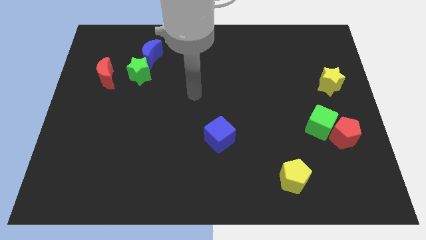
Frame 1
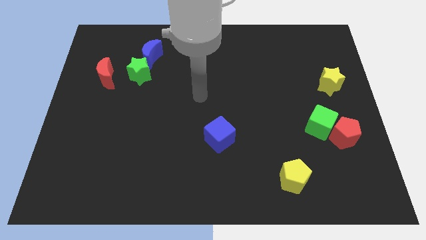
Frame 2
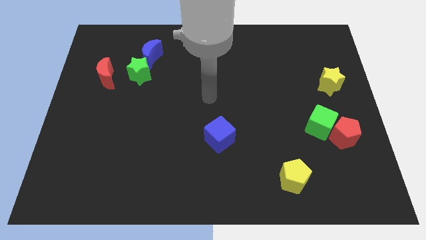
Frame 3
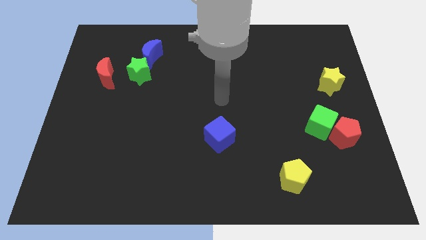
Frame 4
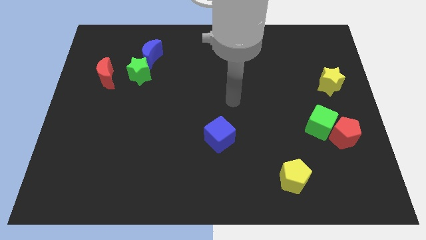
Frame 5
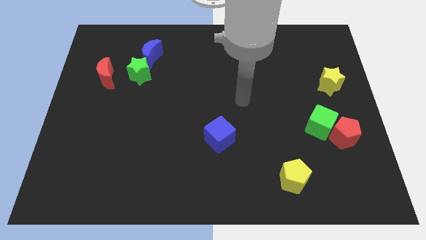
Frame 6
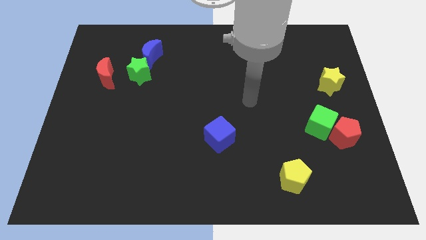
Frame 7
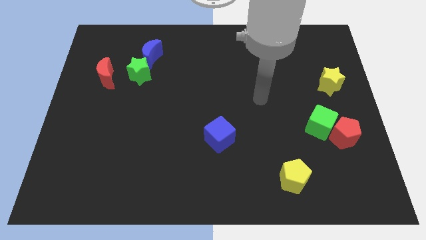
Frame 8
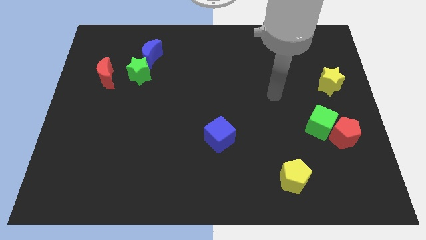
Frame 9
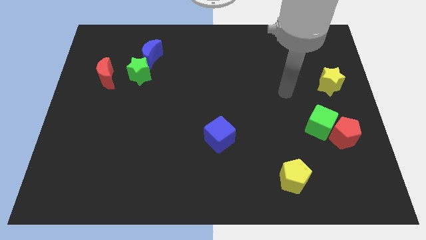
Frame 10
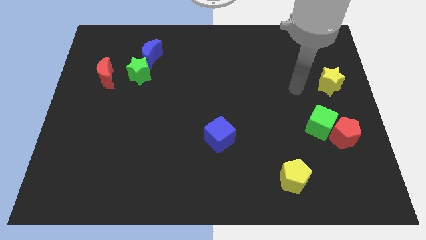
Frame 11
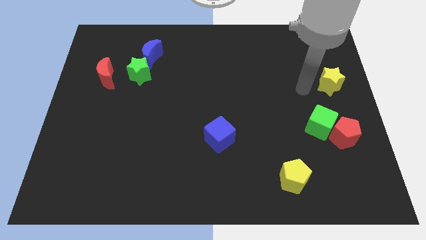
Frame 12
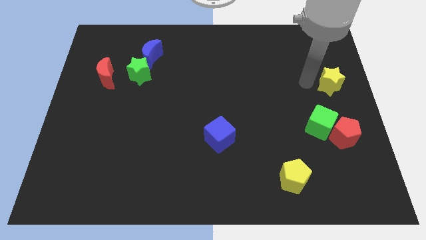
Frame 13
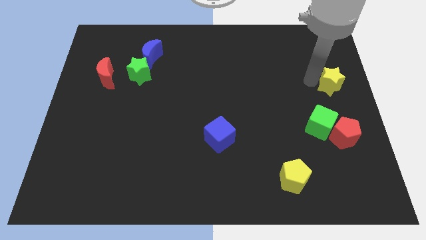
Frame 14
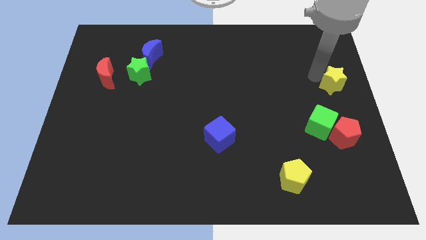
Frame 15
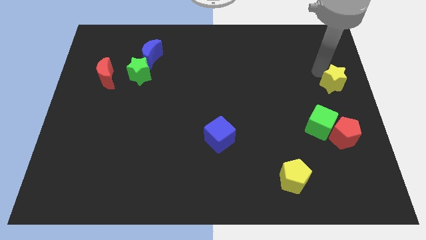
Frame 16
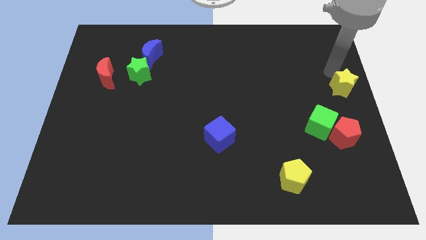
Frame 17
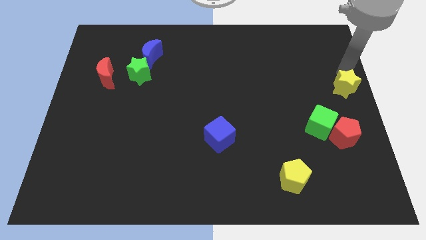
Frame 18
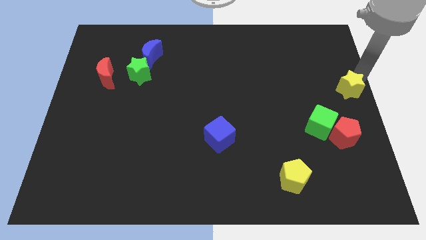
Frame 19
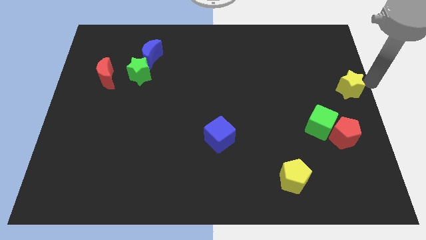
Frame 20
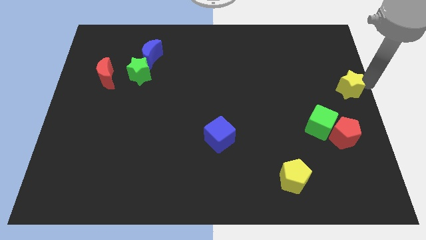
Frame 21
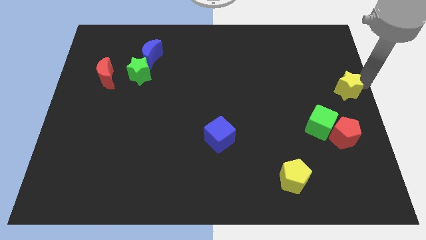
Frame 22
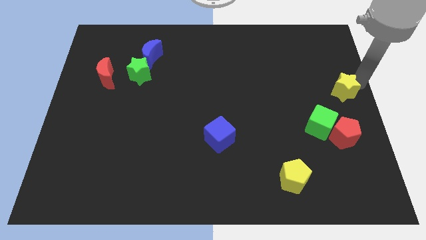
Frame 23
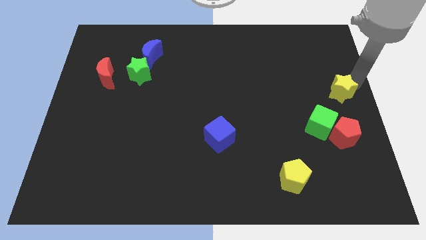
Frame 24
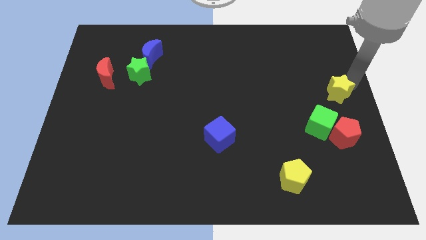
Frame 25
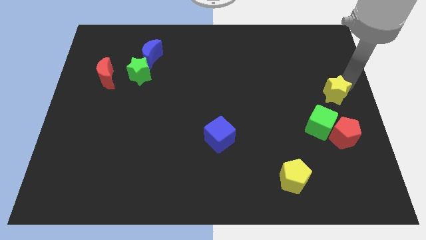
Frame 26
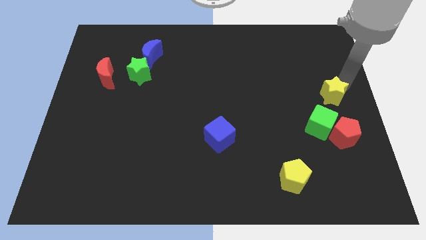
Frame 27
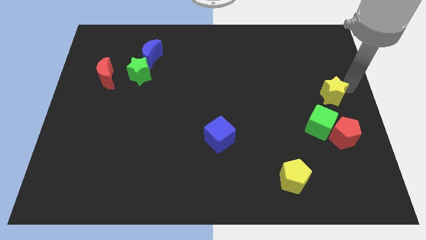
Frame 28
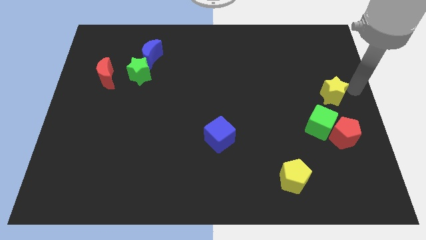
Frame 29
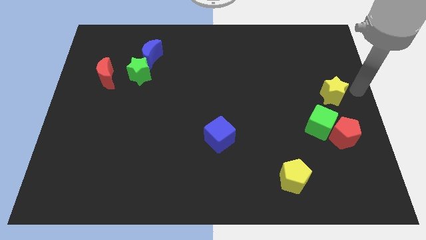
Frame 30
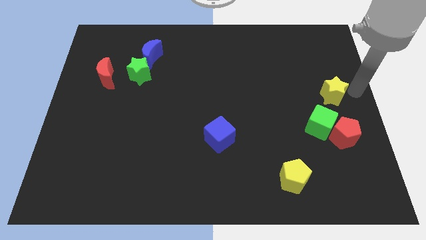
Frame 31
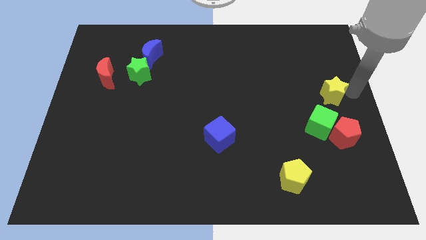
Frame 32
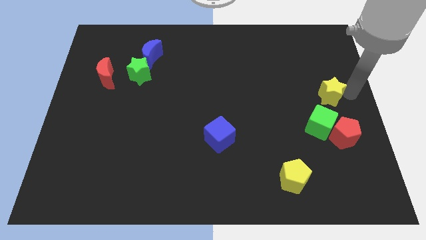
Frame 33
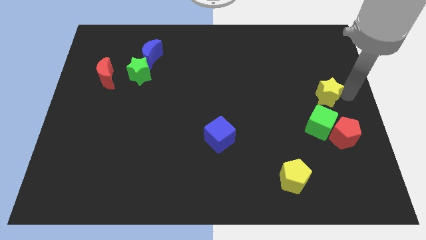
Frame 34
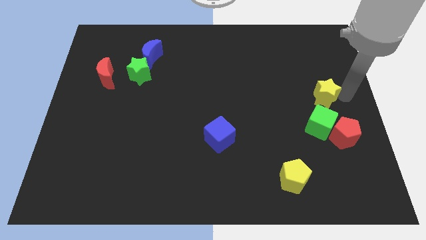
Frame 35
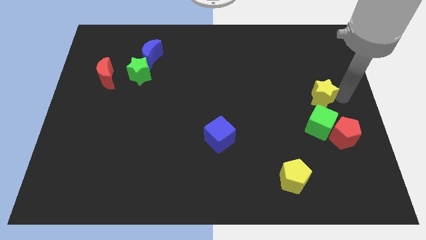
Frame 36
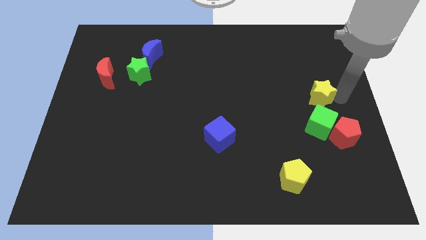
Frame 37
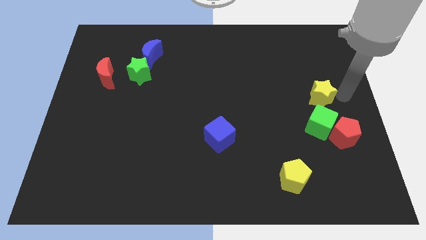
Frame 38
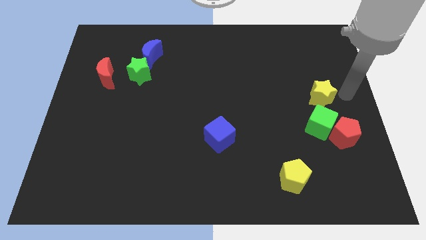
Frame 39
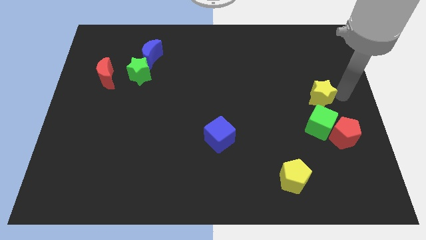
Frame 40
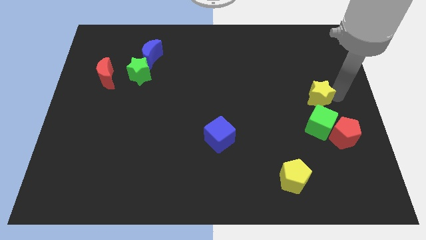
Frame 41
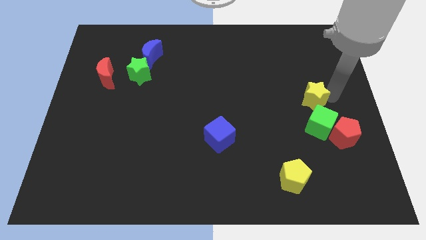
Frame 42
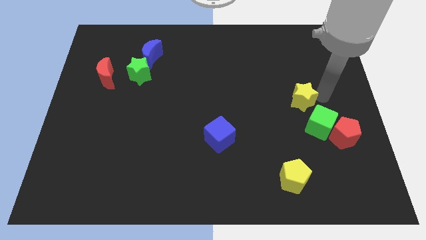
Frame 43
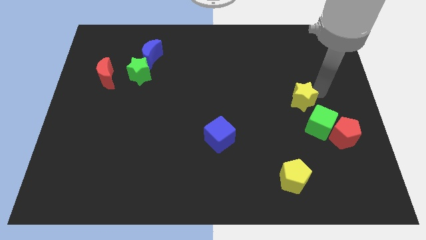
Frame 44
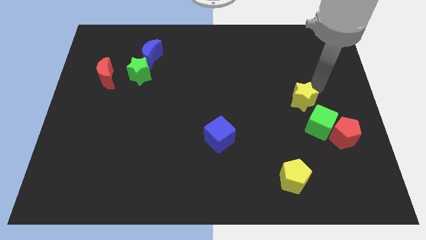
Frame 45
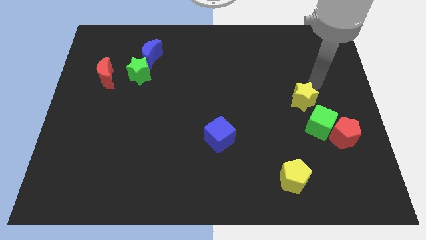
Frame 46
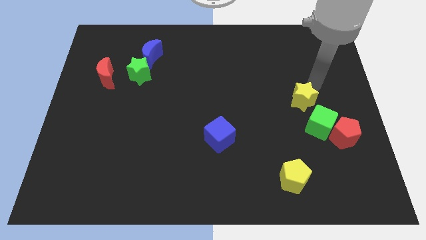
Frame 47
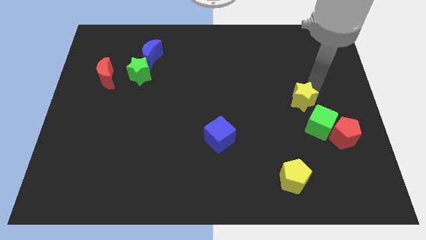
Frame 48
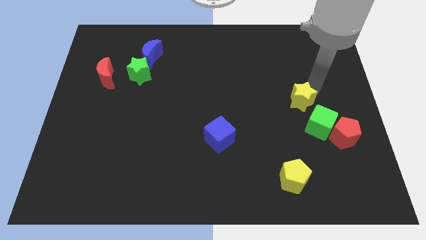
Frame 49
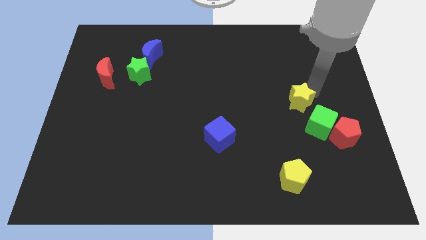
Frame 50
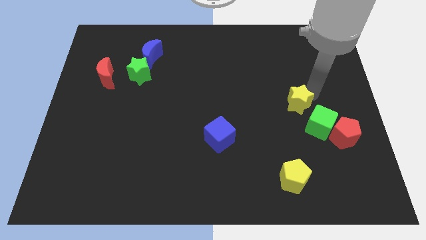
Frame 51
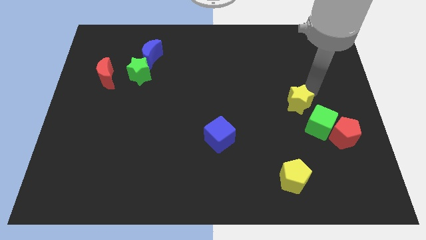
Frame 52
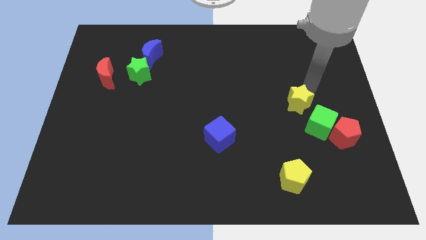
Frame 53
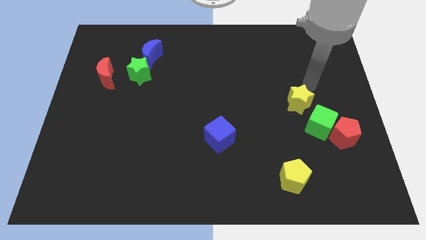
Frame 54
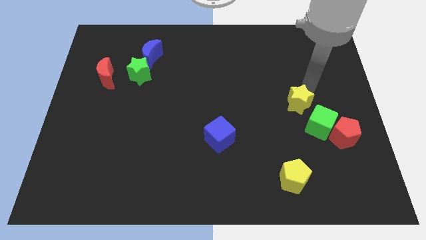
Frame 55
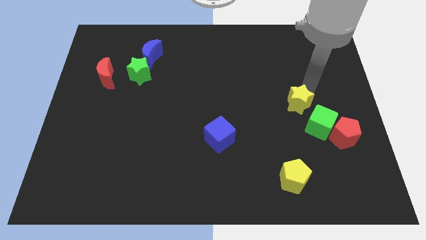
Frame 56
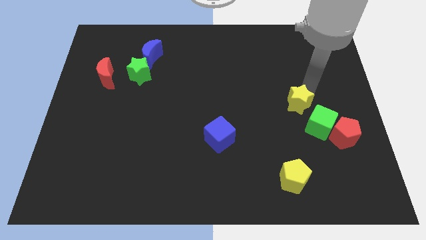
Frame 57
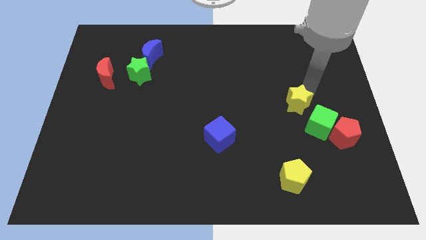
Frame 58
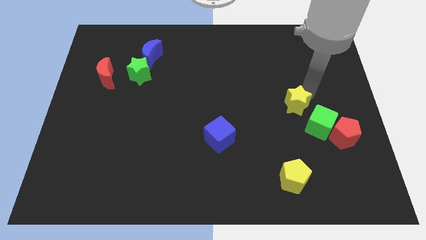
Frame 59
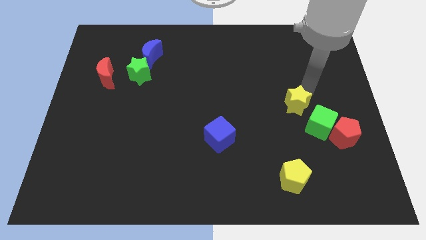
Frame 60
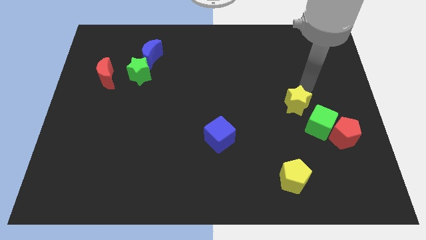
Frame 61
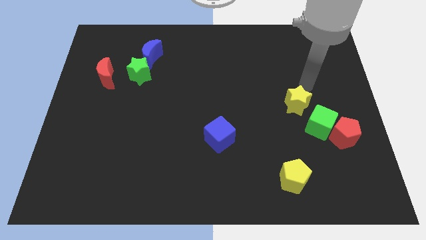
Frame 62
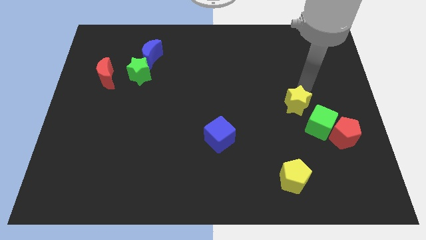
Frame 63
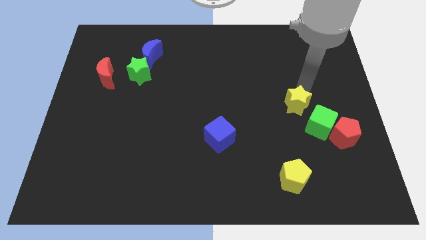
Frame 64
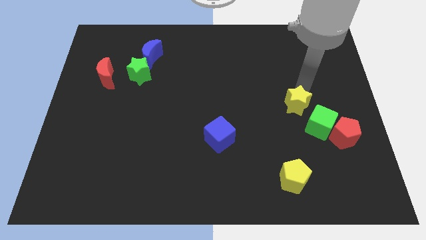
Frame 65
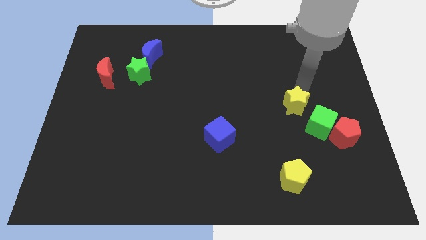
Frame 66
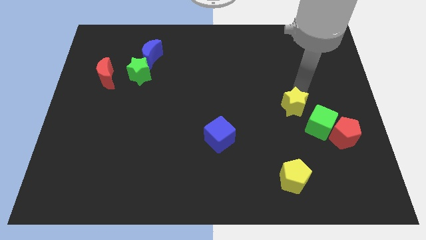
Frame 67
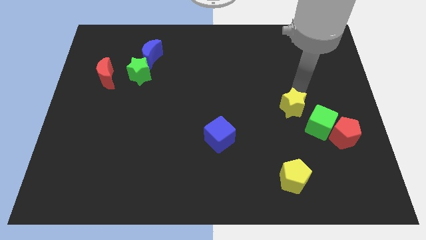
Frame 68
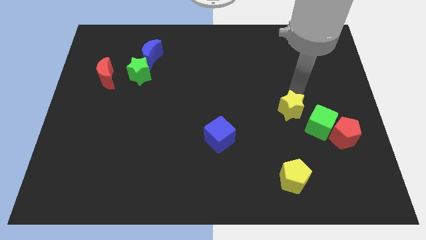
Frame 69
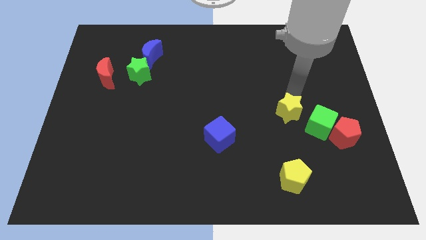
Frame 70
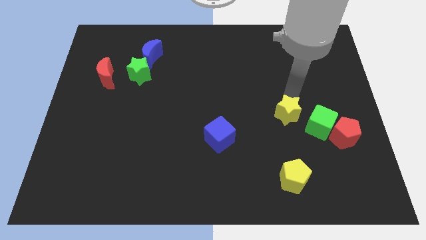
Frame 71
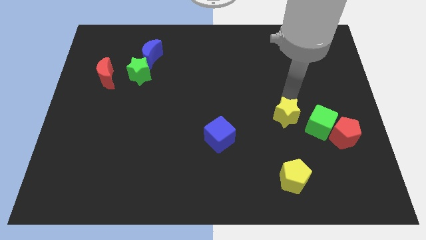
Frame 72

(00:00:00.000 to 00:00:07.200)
move the yellow star to the top side of the yellow pentagon

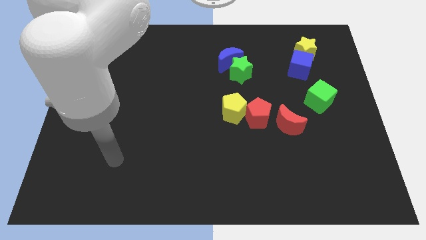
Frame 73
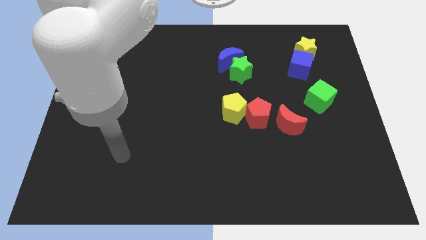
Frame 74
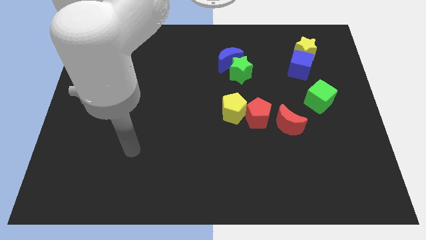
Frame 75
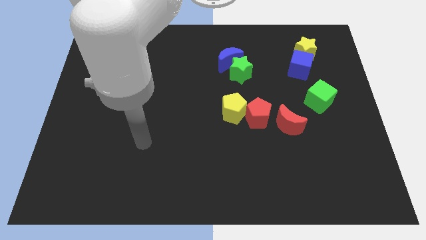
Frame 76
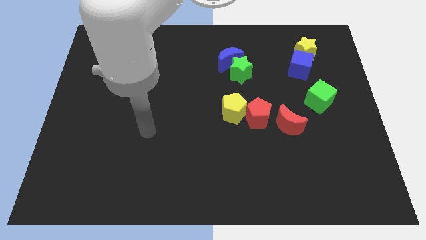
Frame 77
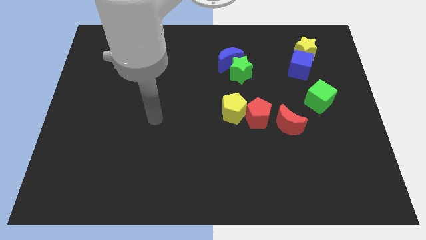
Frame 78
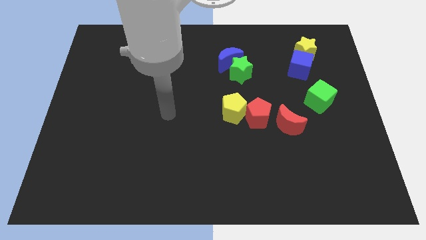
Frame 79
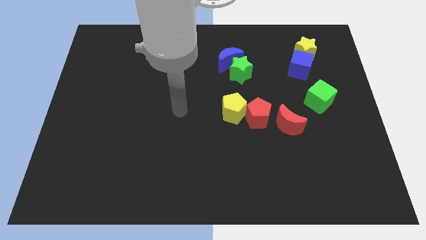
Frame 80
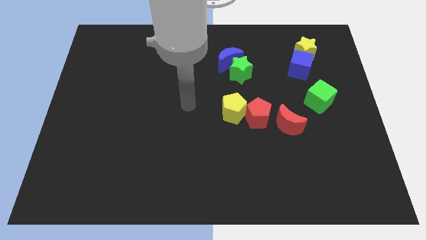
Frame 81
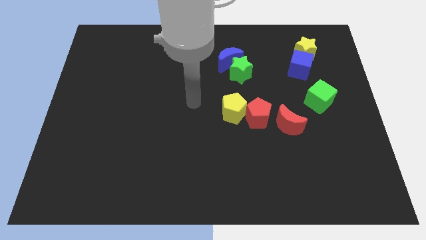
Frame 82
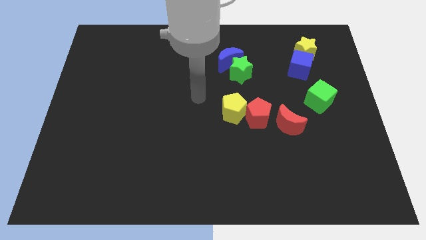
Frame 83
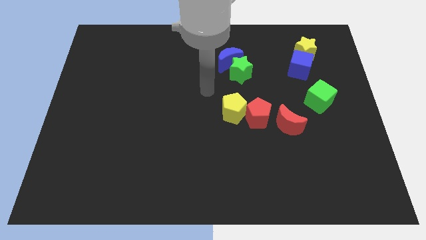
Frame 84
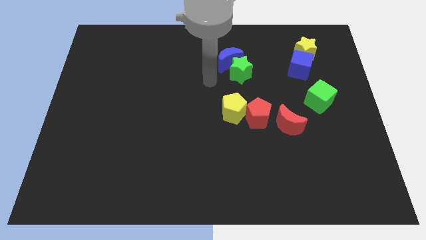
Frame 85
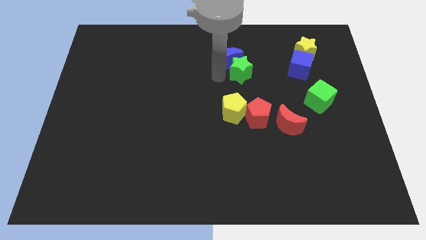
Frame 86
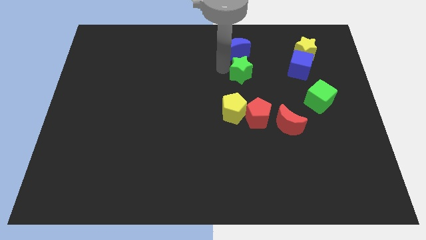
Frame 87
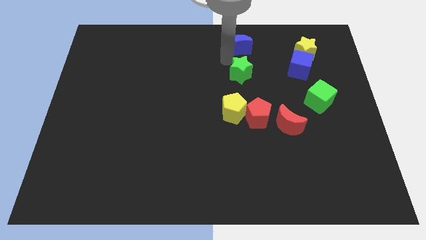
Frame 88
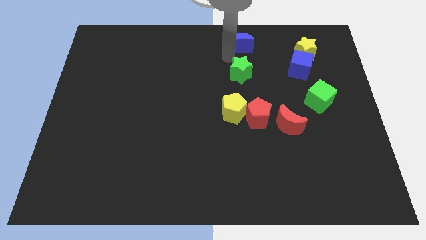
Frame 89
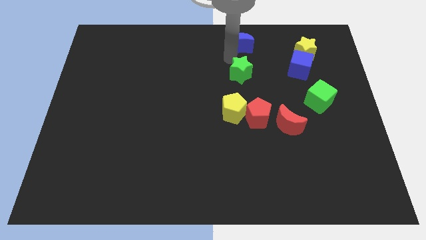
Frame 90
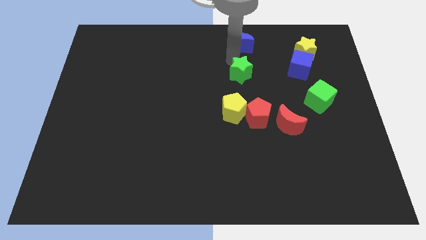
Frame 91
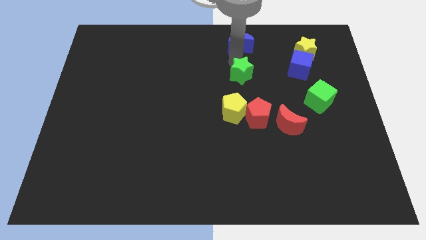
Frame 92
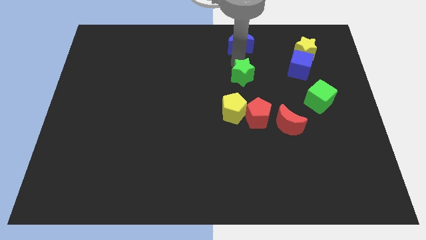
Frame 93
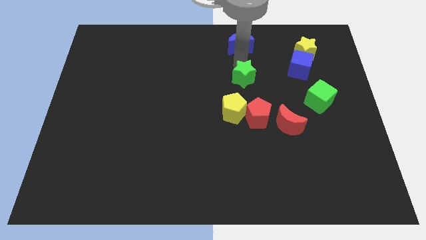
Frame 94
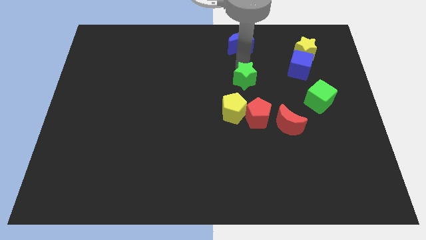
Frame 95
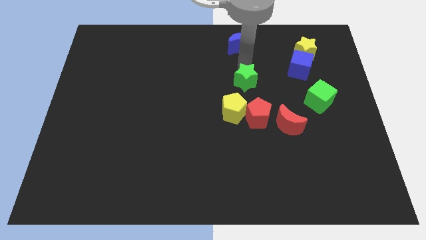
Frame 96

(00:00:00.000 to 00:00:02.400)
put the green star to the top right of the yellow pentagon
